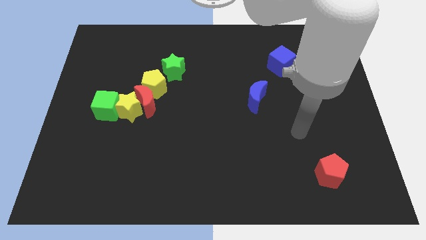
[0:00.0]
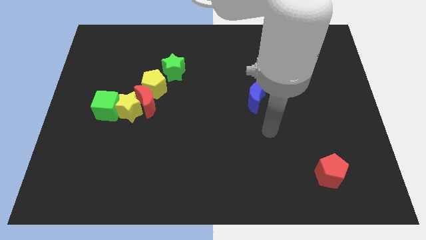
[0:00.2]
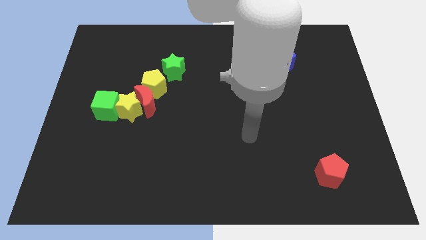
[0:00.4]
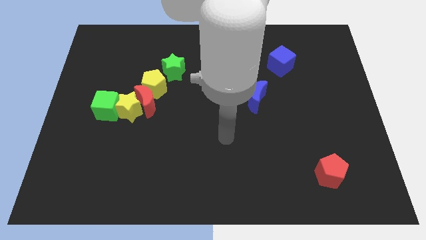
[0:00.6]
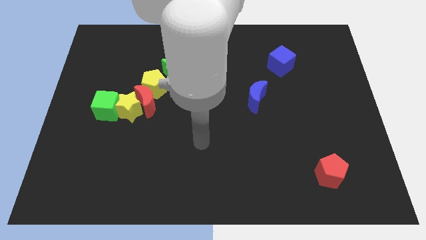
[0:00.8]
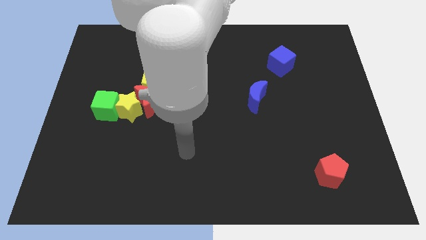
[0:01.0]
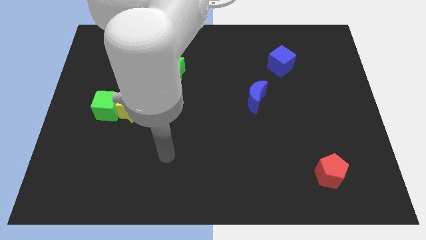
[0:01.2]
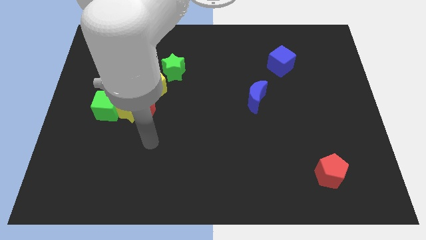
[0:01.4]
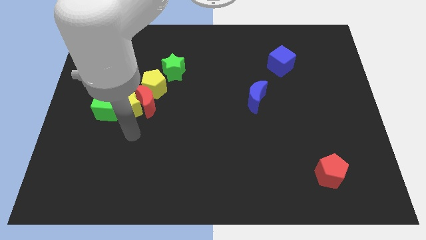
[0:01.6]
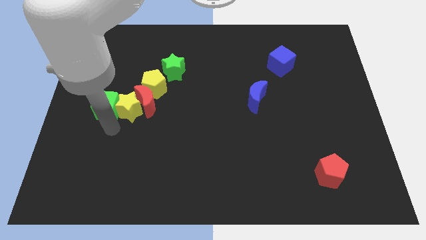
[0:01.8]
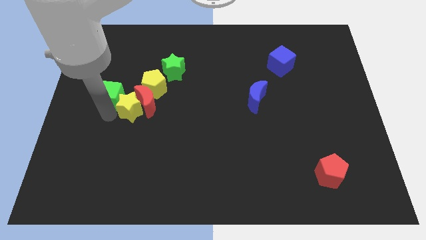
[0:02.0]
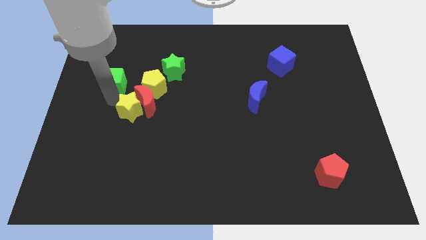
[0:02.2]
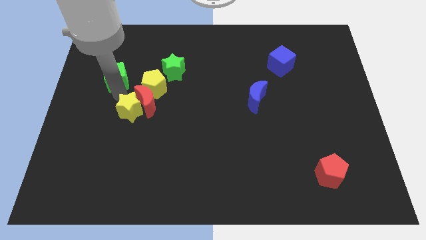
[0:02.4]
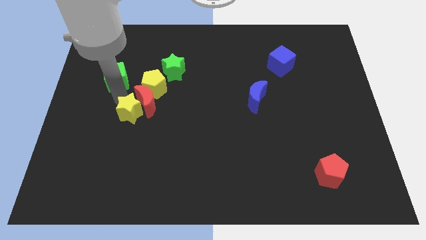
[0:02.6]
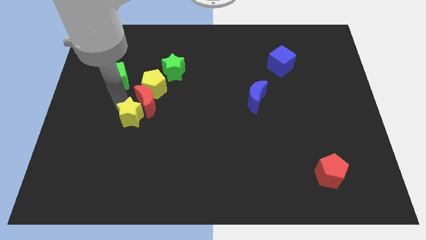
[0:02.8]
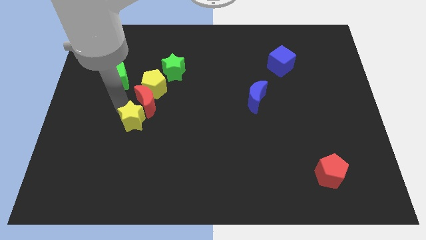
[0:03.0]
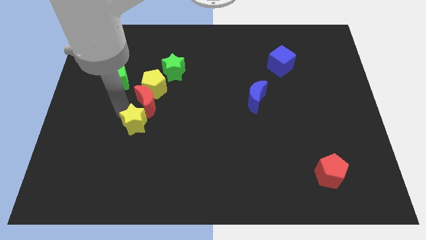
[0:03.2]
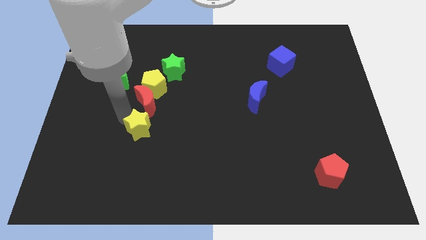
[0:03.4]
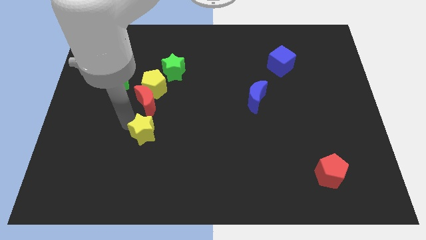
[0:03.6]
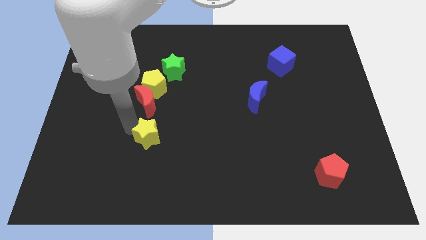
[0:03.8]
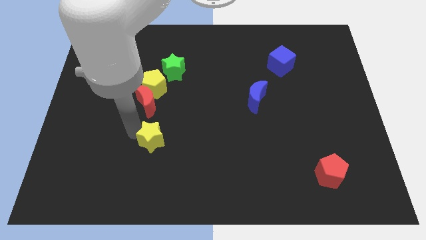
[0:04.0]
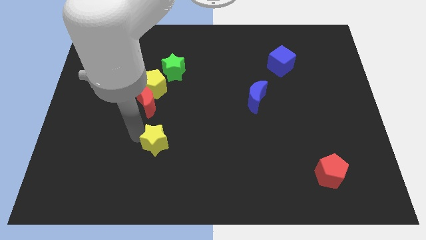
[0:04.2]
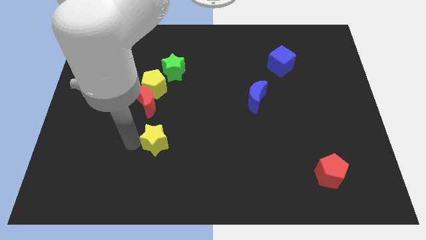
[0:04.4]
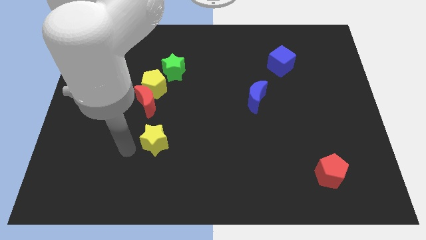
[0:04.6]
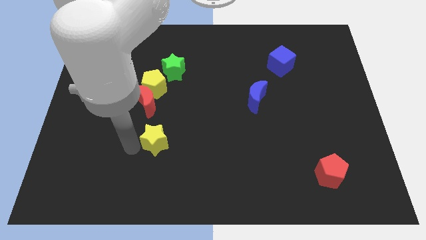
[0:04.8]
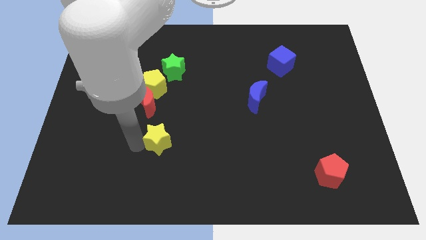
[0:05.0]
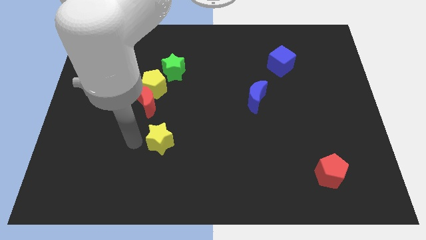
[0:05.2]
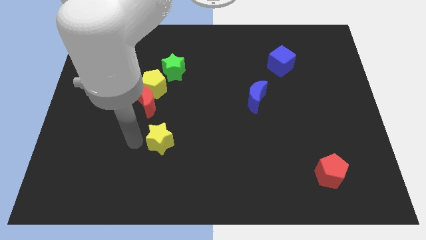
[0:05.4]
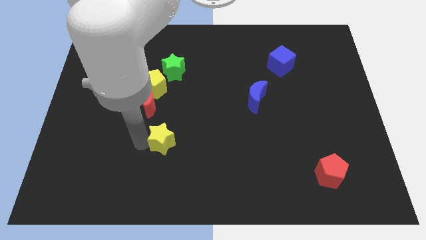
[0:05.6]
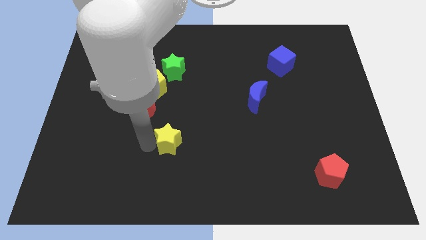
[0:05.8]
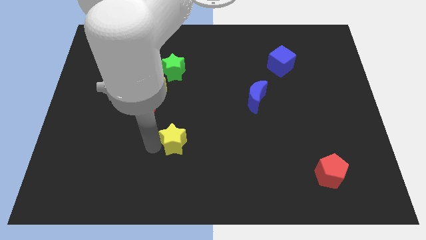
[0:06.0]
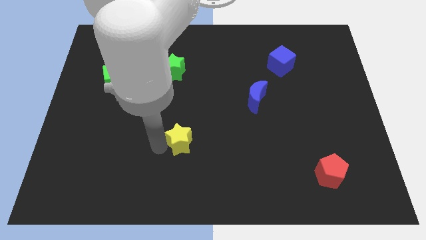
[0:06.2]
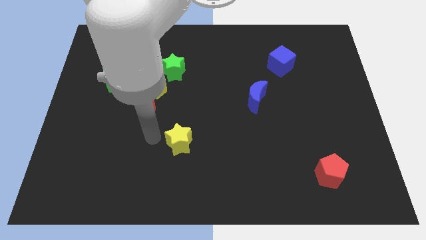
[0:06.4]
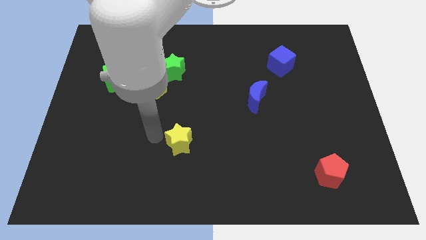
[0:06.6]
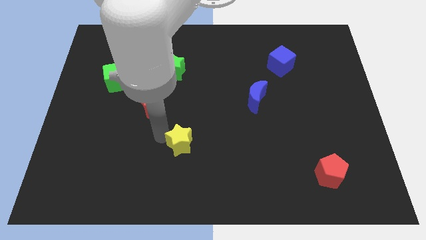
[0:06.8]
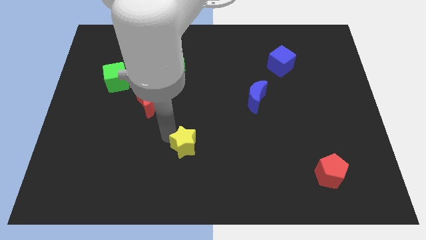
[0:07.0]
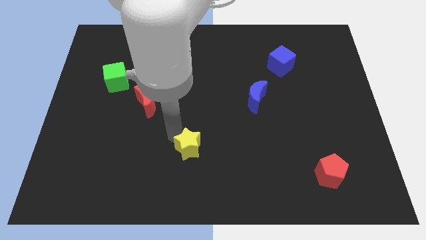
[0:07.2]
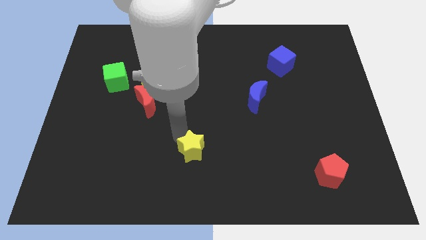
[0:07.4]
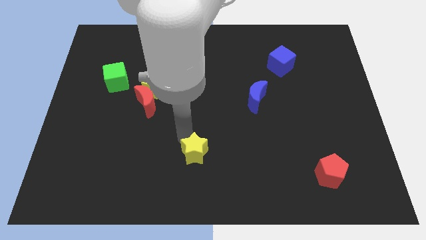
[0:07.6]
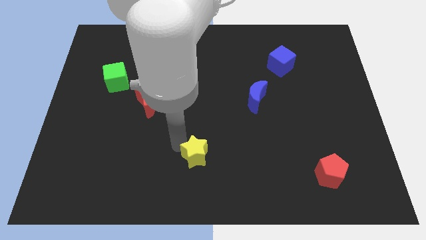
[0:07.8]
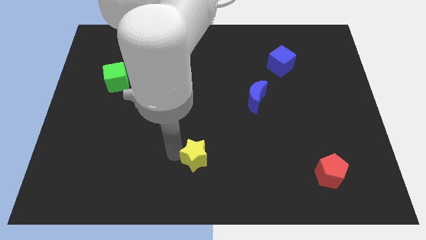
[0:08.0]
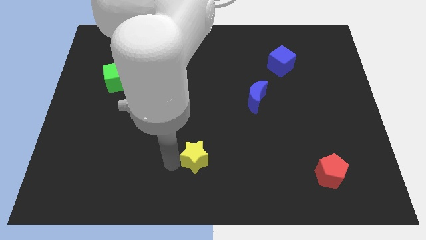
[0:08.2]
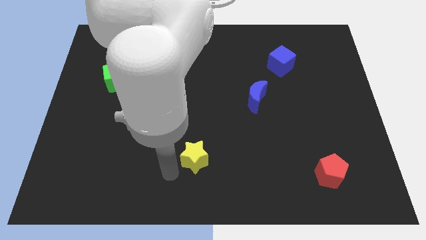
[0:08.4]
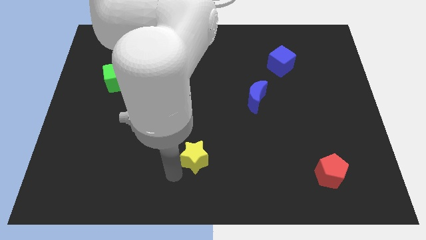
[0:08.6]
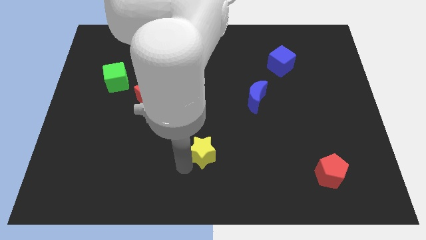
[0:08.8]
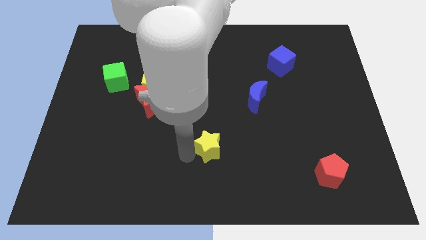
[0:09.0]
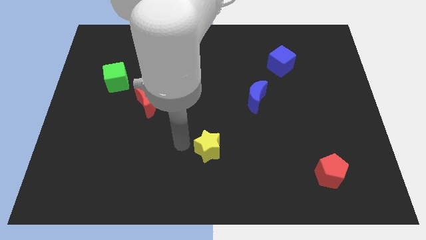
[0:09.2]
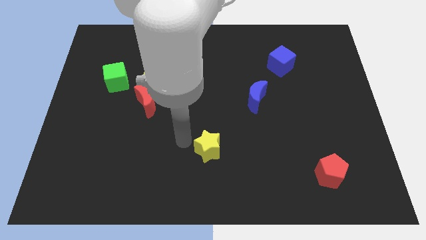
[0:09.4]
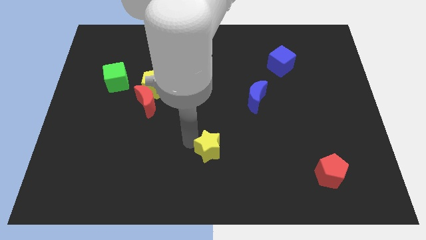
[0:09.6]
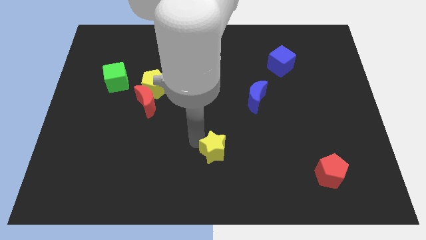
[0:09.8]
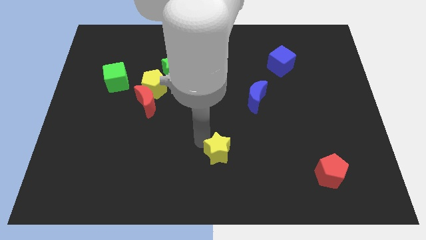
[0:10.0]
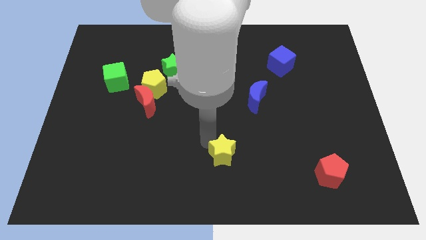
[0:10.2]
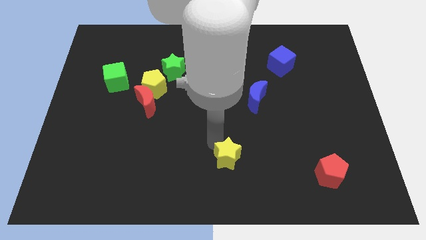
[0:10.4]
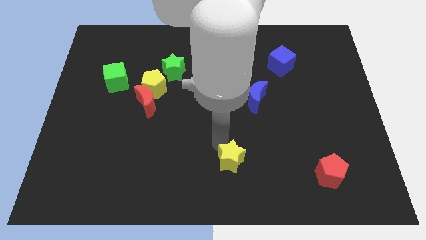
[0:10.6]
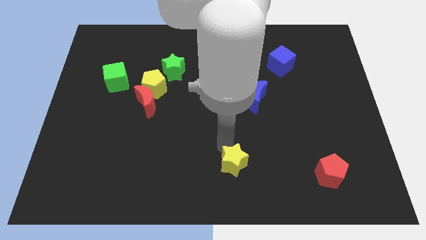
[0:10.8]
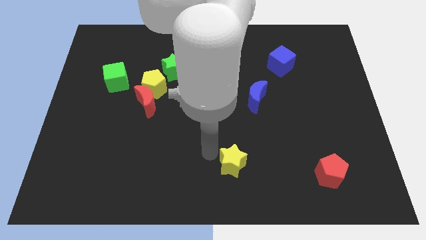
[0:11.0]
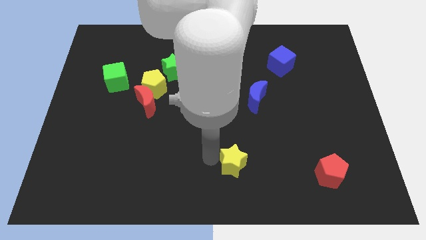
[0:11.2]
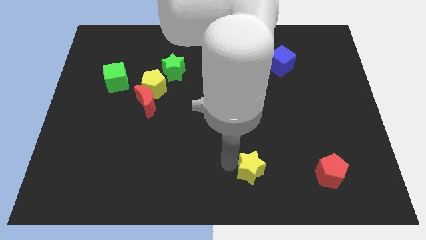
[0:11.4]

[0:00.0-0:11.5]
slide the yellow star just left of the red pentagon

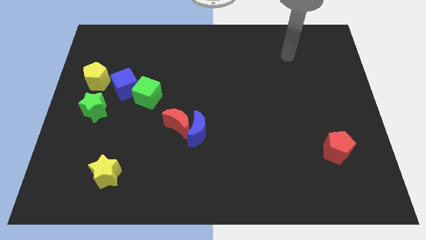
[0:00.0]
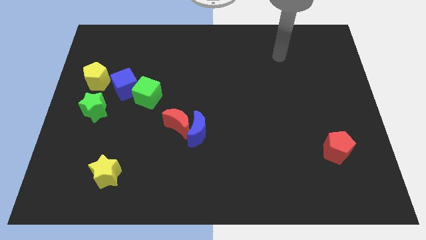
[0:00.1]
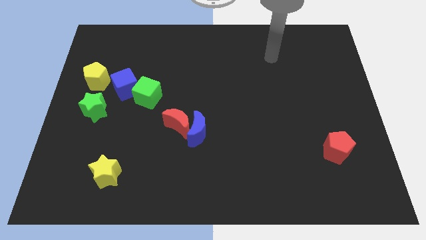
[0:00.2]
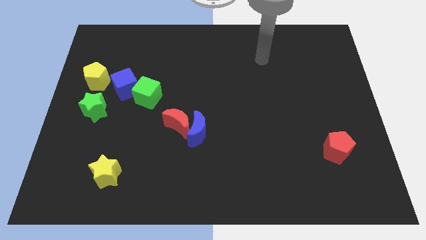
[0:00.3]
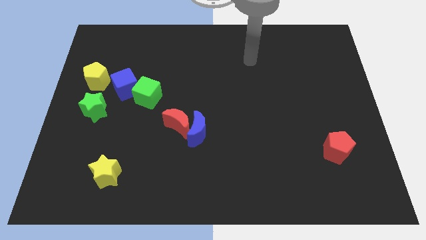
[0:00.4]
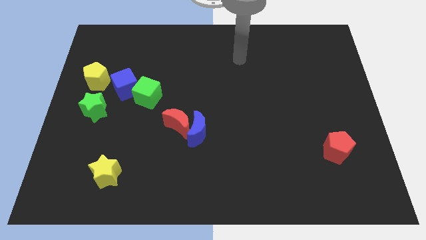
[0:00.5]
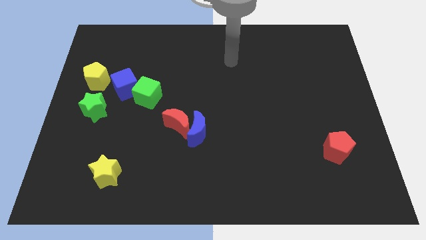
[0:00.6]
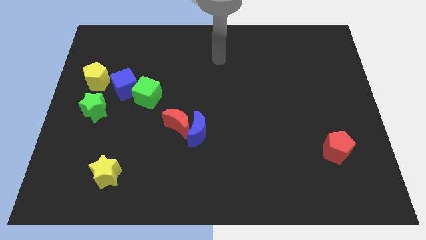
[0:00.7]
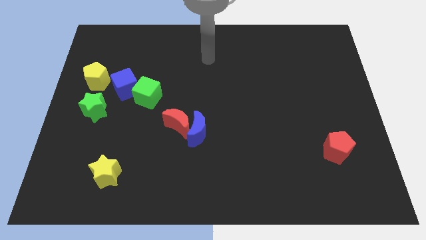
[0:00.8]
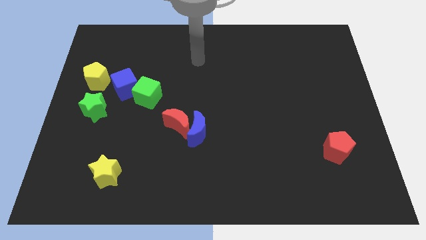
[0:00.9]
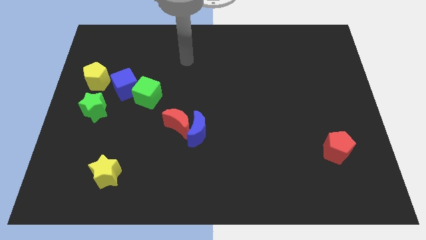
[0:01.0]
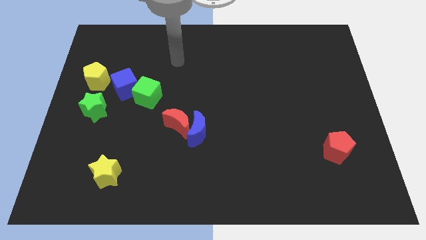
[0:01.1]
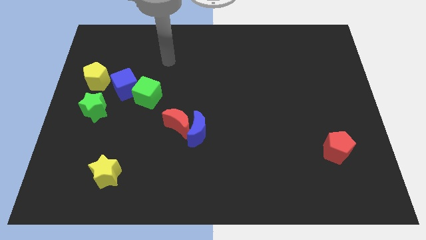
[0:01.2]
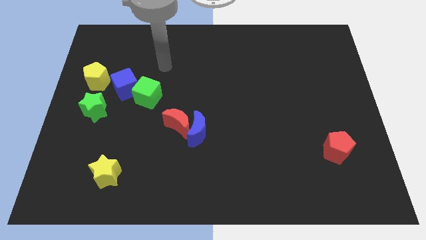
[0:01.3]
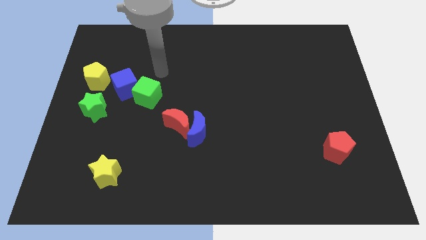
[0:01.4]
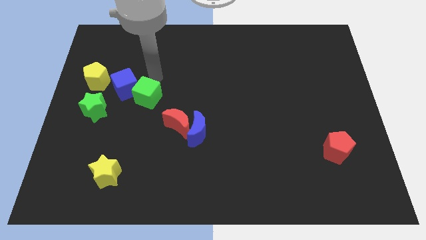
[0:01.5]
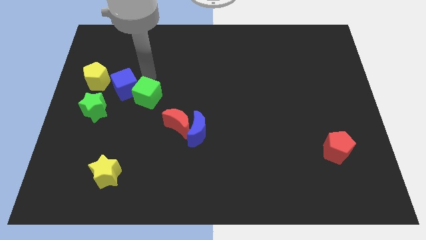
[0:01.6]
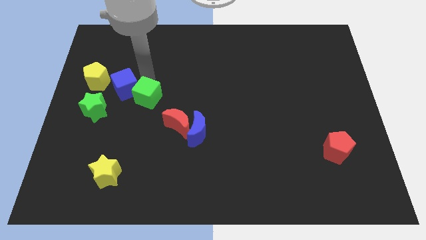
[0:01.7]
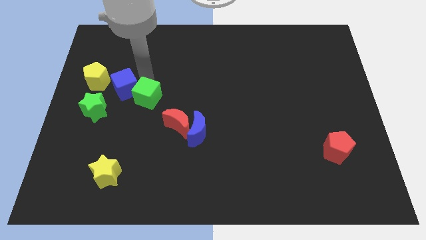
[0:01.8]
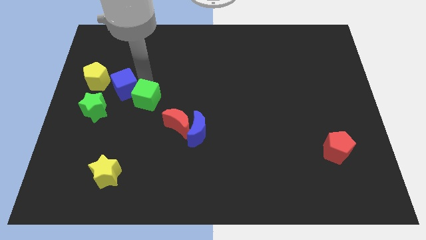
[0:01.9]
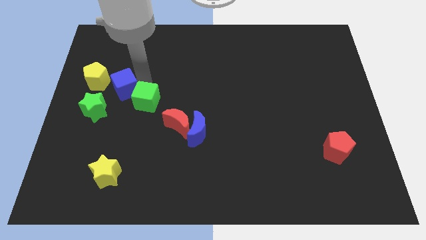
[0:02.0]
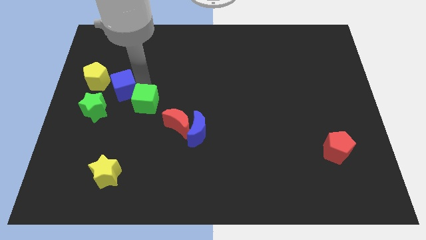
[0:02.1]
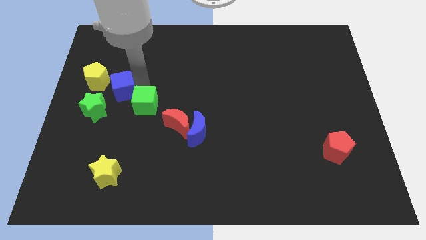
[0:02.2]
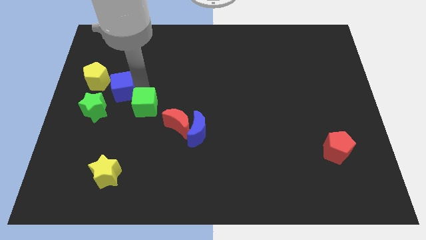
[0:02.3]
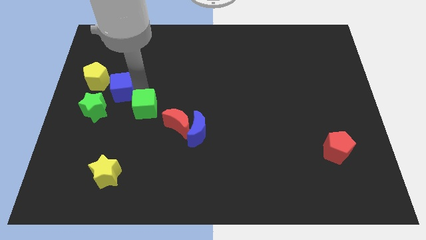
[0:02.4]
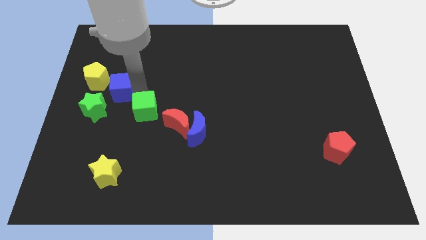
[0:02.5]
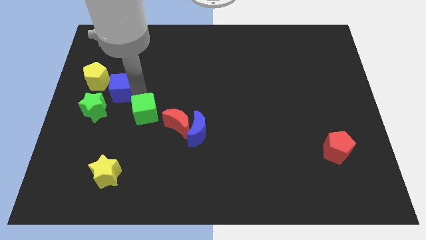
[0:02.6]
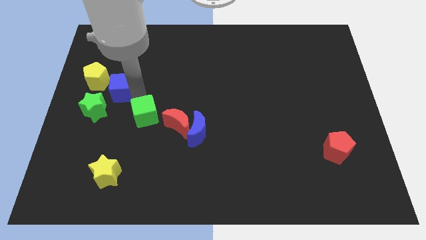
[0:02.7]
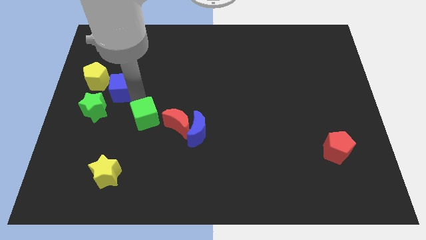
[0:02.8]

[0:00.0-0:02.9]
put the green cube to the left side of the blue moon
